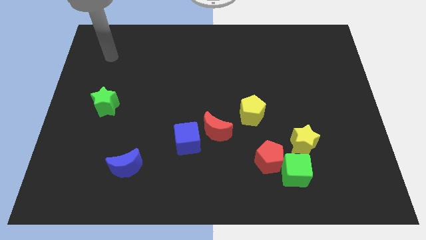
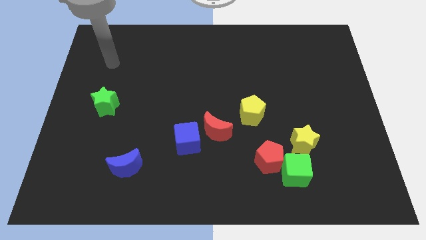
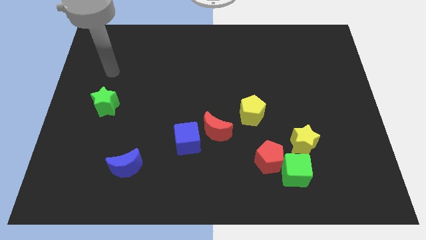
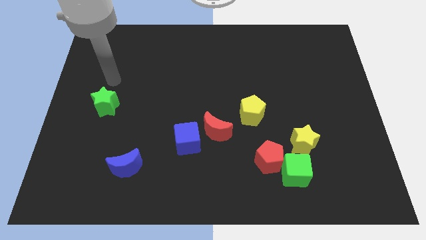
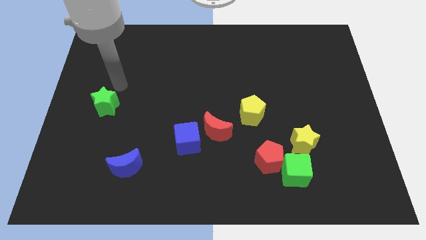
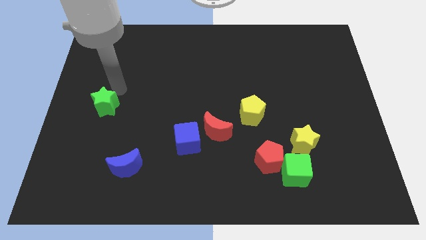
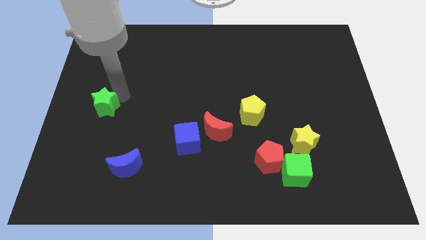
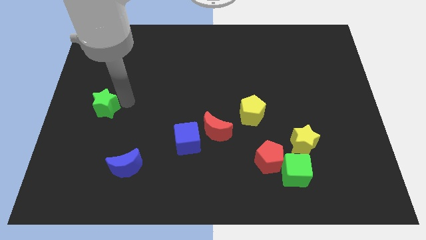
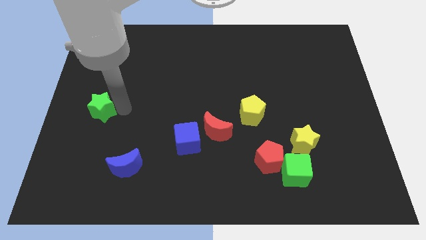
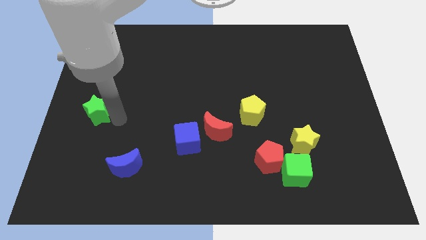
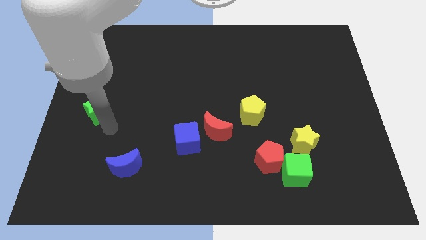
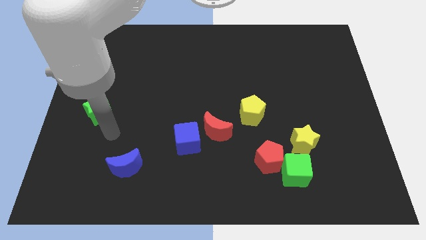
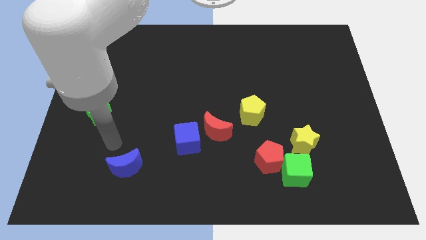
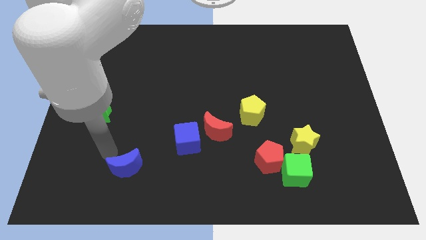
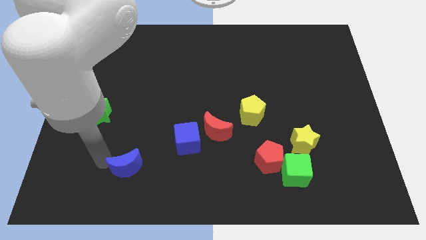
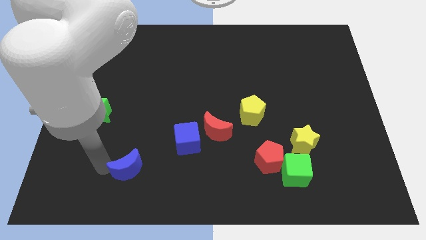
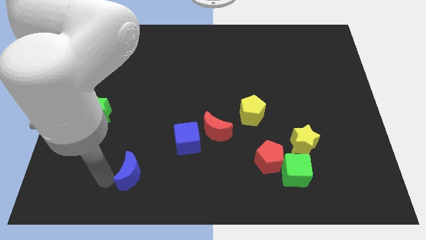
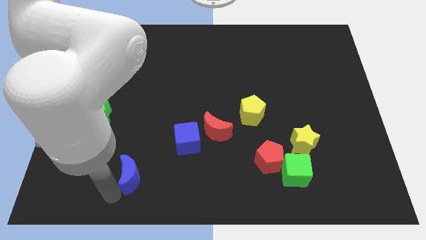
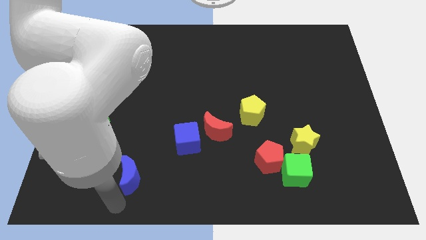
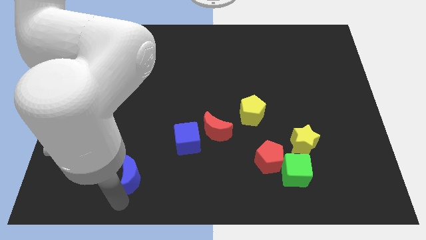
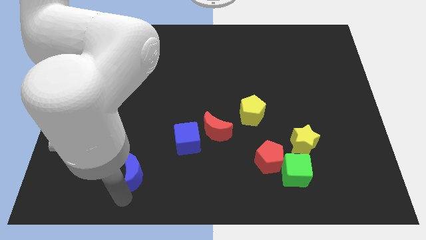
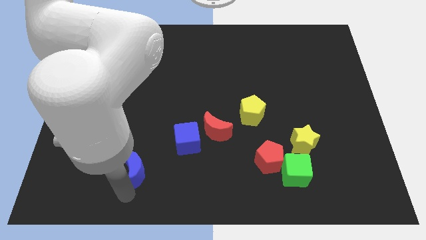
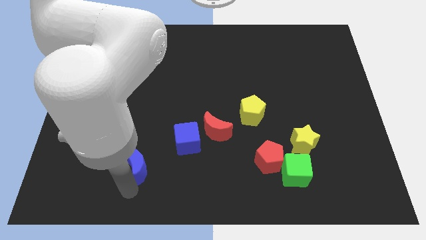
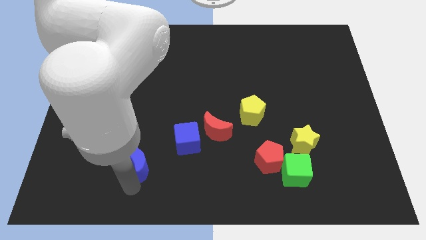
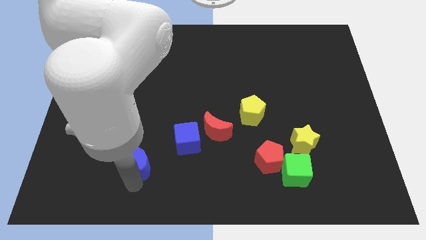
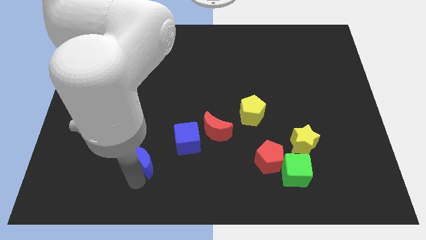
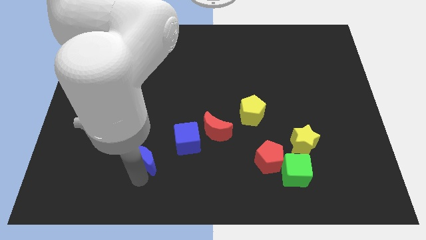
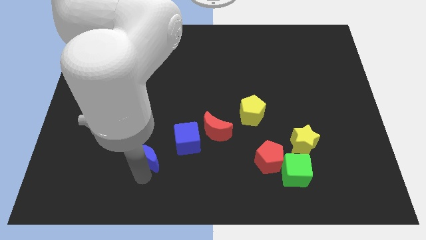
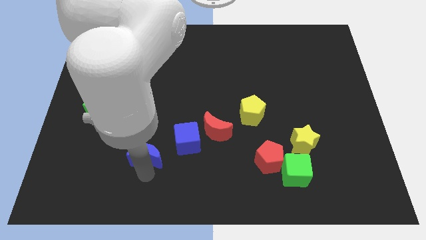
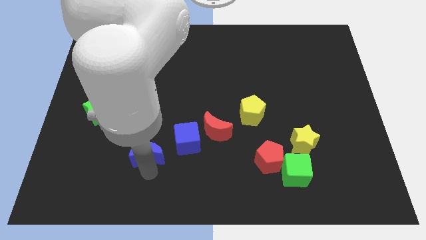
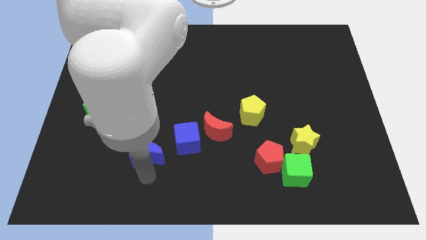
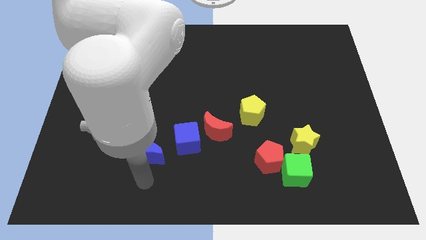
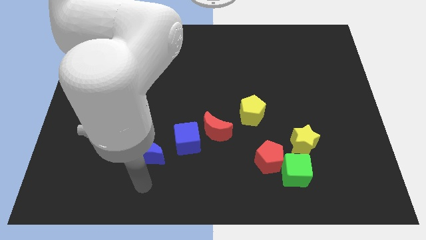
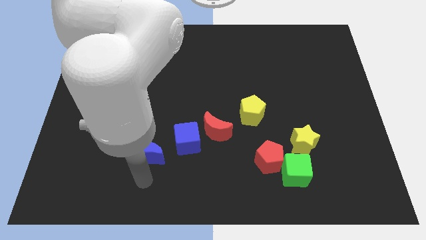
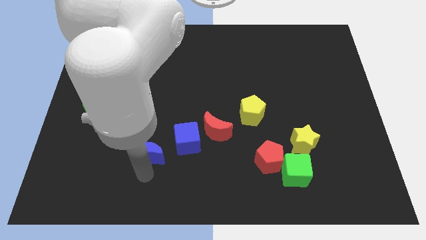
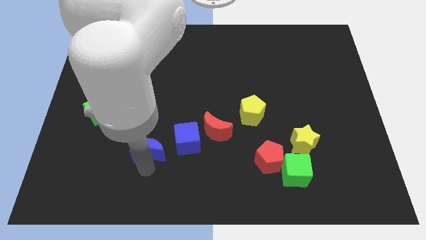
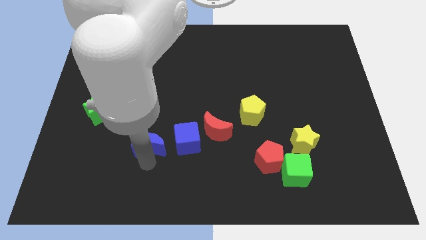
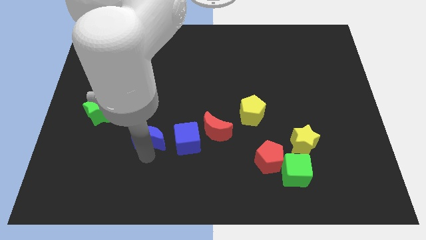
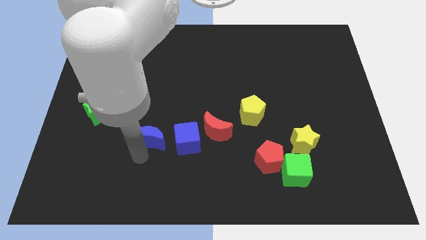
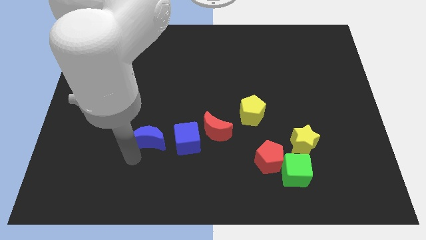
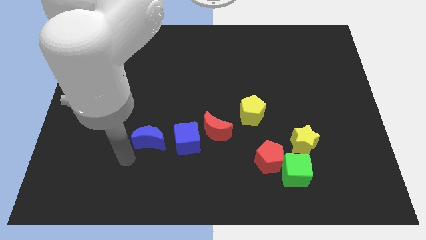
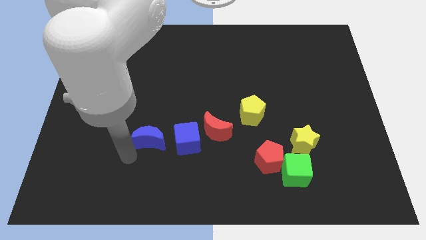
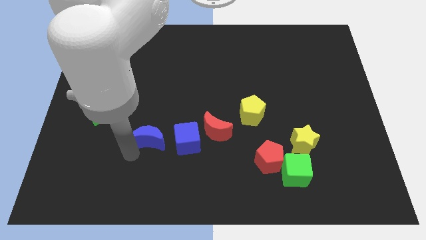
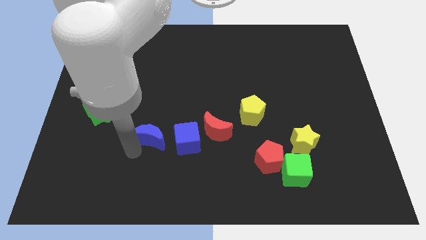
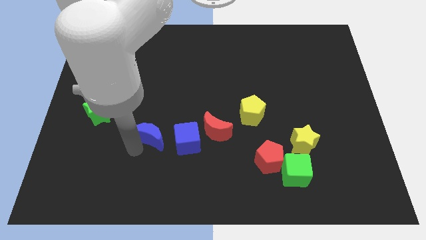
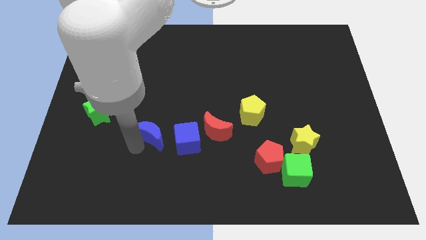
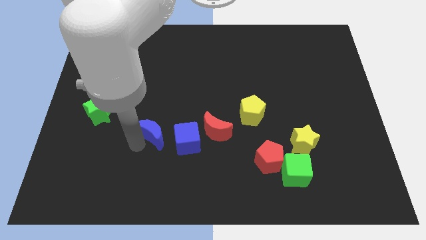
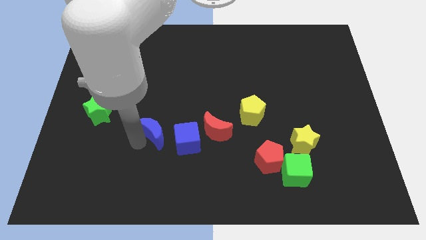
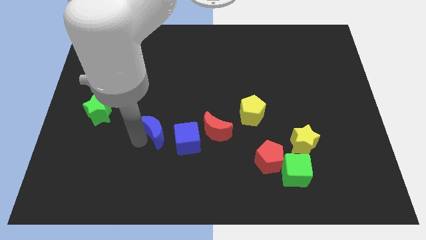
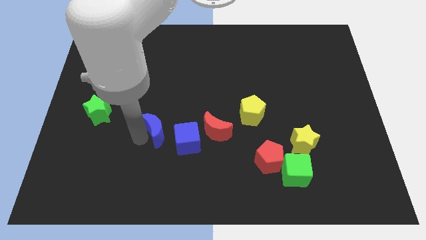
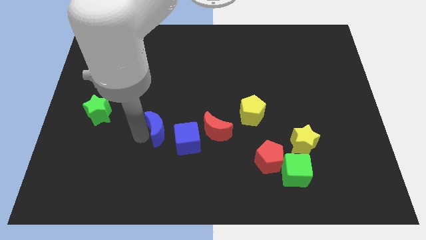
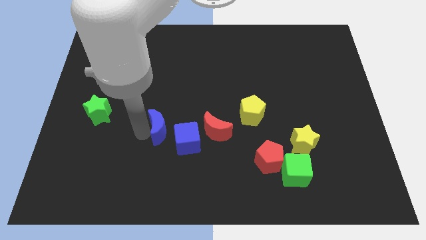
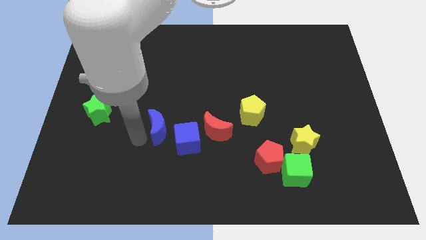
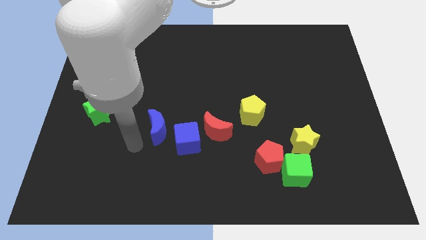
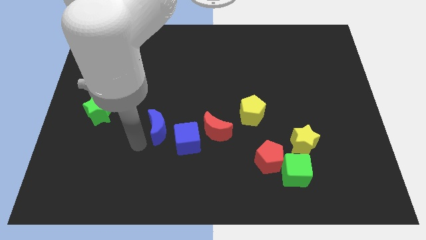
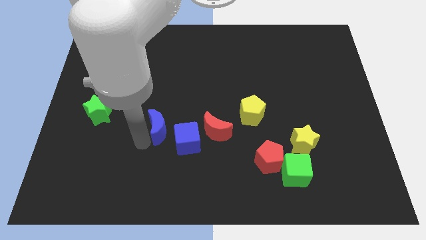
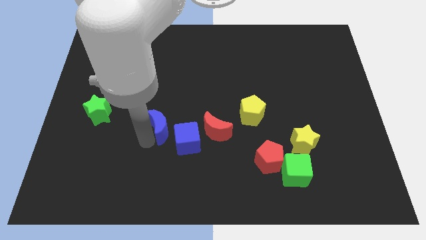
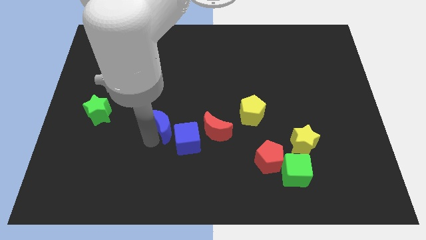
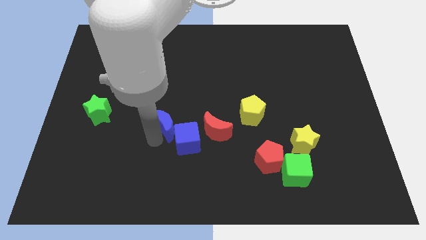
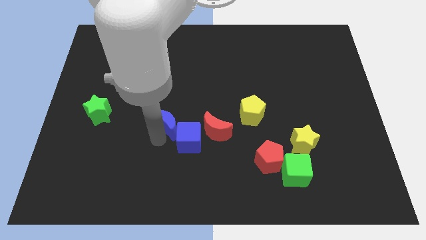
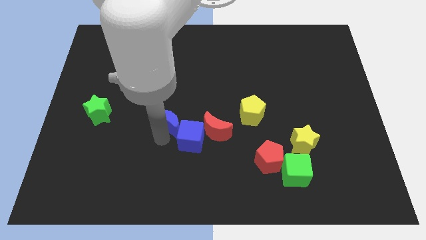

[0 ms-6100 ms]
slide the blue moon to the middle of the board
